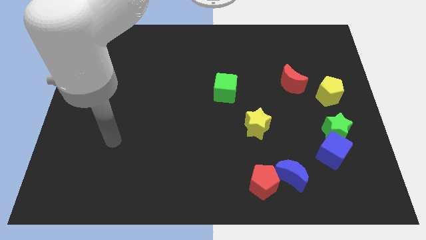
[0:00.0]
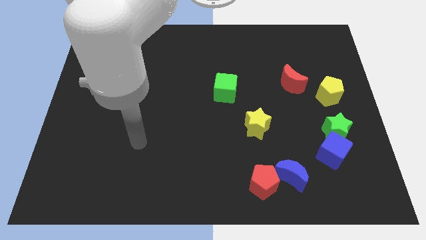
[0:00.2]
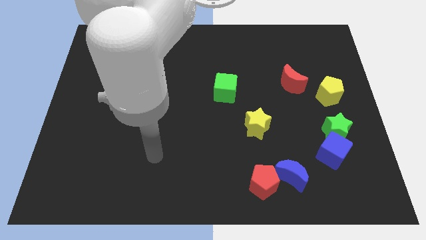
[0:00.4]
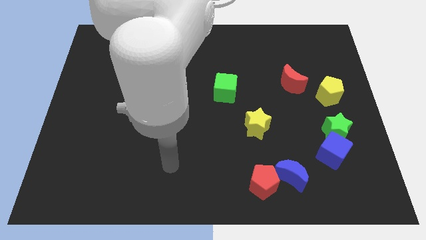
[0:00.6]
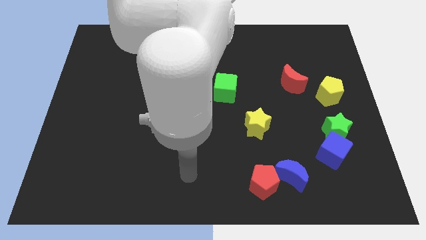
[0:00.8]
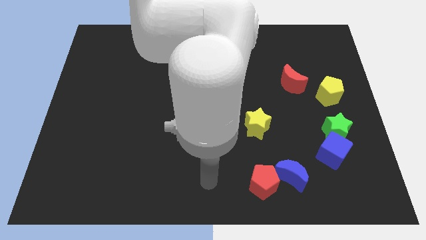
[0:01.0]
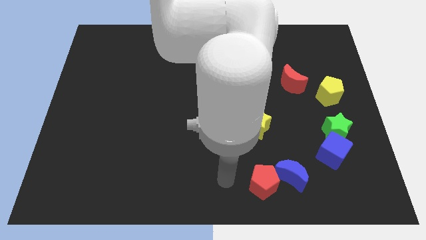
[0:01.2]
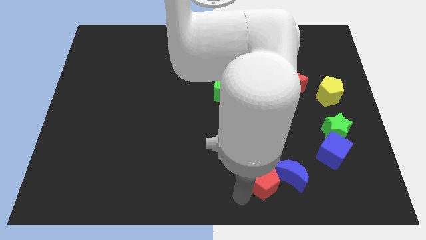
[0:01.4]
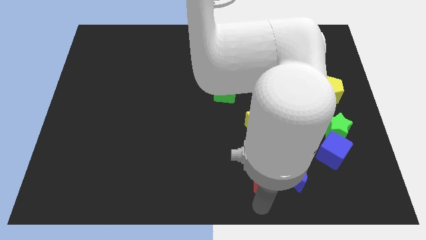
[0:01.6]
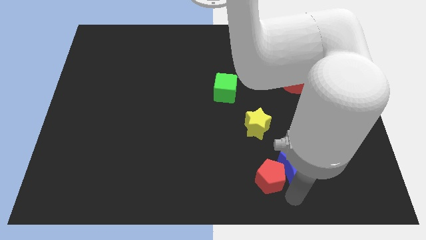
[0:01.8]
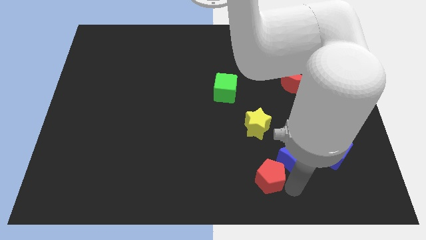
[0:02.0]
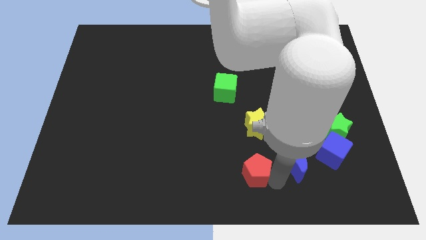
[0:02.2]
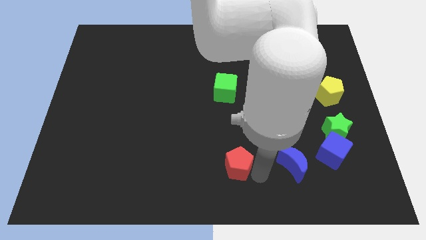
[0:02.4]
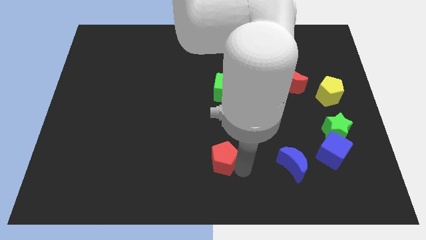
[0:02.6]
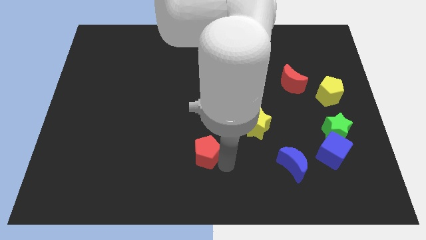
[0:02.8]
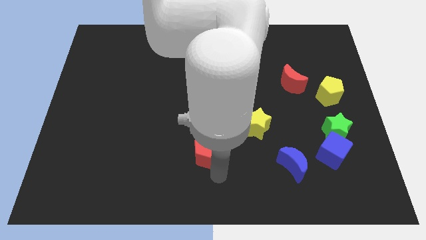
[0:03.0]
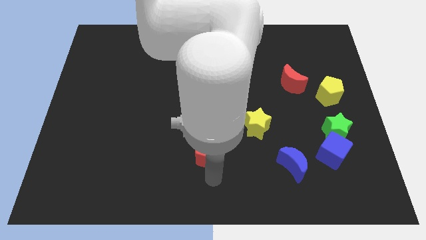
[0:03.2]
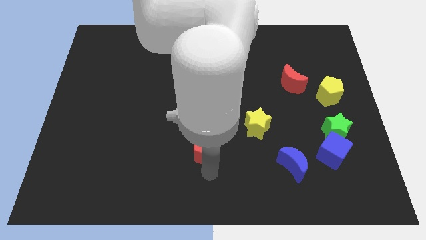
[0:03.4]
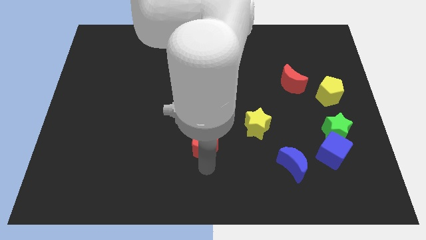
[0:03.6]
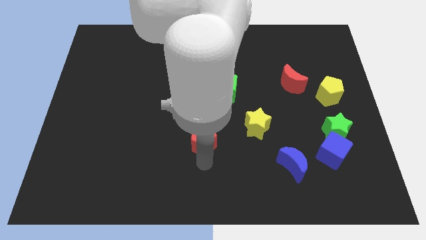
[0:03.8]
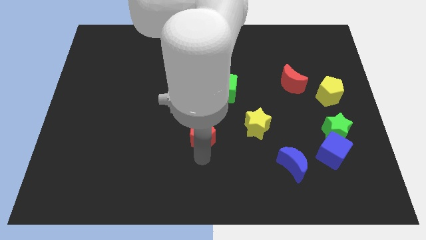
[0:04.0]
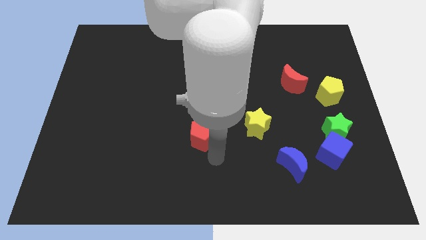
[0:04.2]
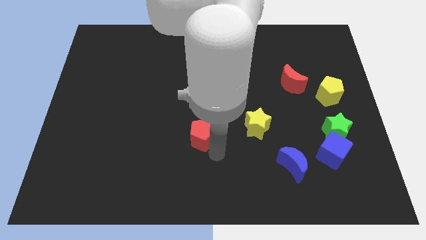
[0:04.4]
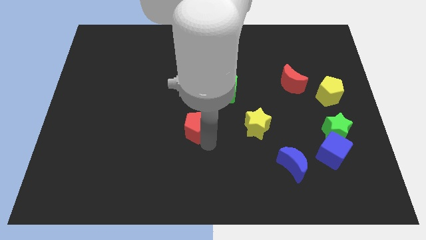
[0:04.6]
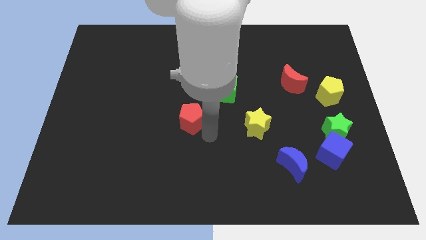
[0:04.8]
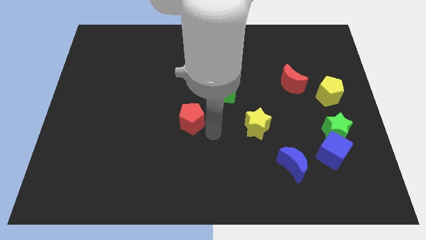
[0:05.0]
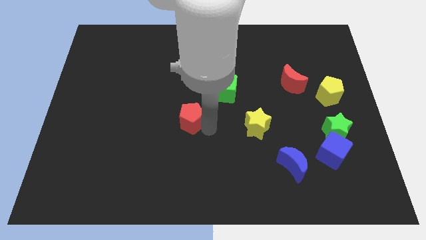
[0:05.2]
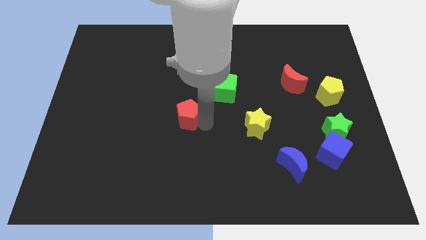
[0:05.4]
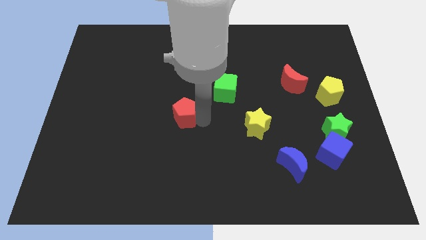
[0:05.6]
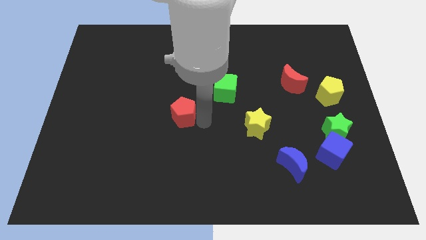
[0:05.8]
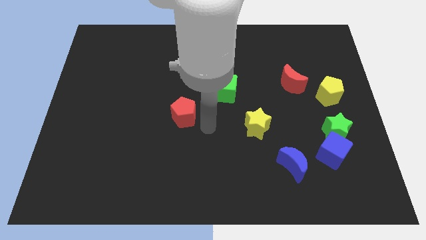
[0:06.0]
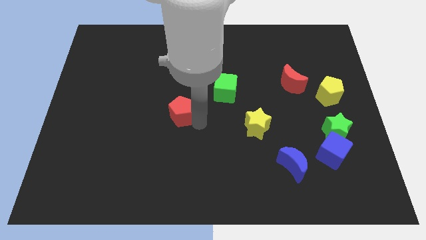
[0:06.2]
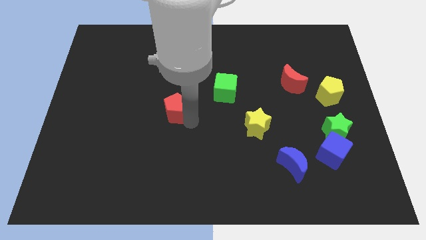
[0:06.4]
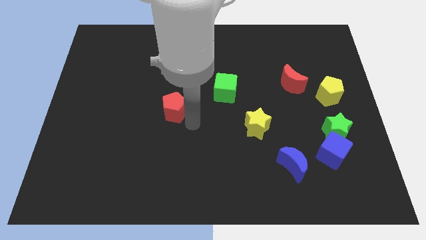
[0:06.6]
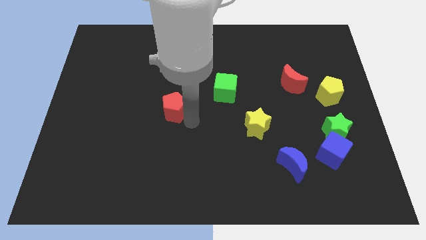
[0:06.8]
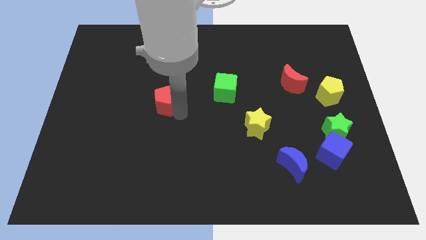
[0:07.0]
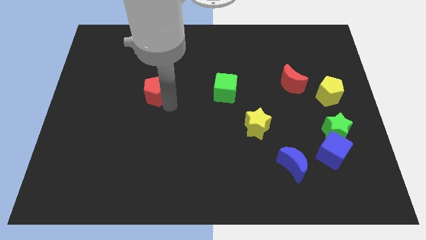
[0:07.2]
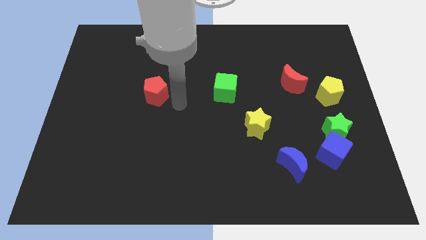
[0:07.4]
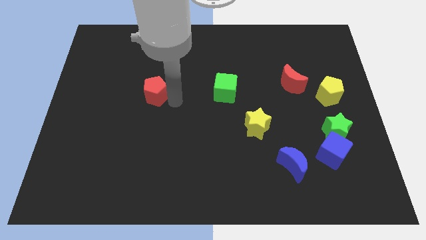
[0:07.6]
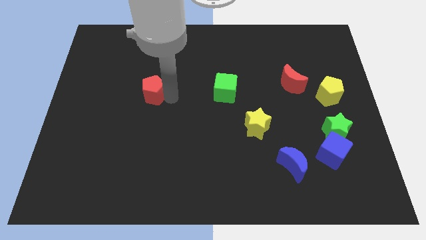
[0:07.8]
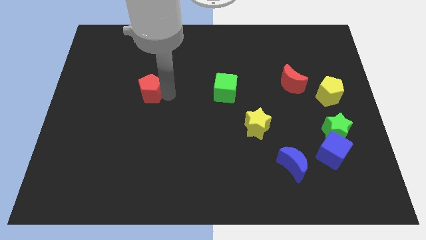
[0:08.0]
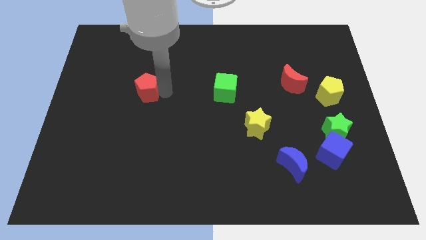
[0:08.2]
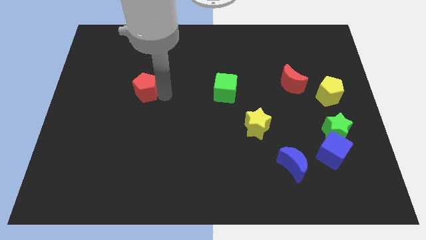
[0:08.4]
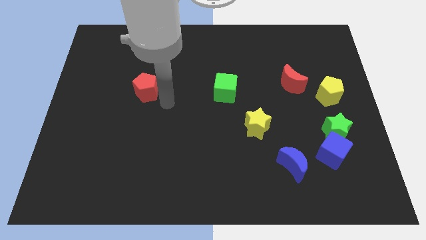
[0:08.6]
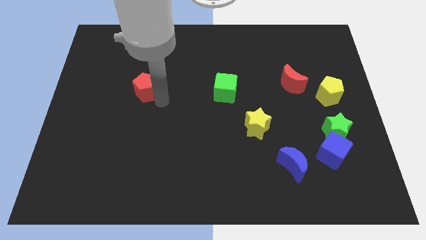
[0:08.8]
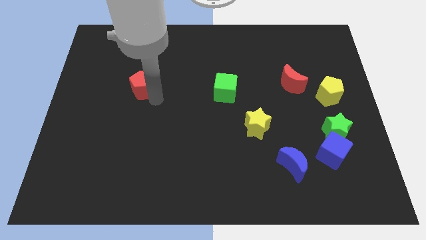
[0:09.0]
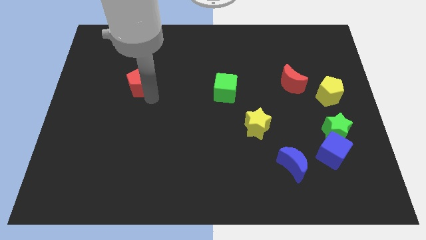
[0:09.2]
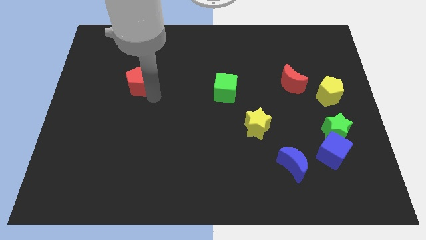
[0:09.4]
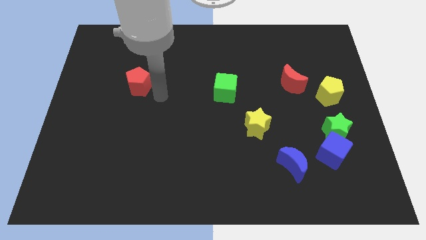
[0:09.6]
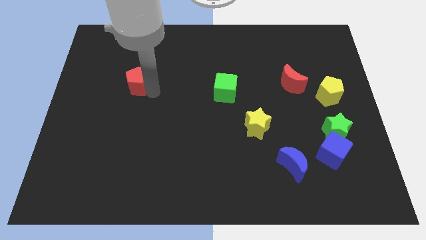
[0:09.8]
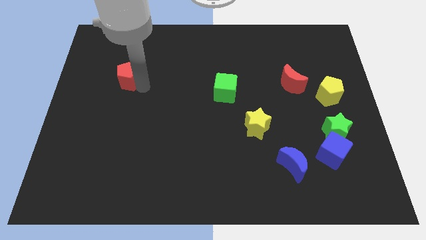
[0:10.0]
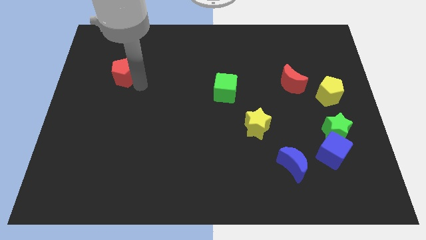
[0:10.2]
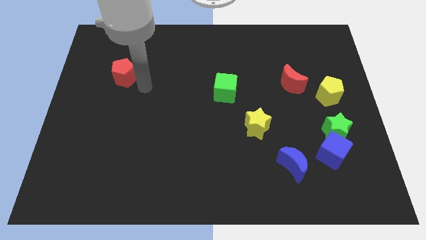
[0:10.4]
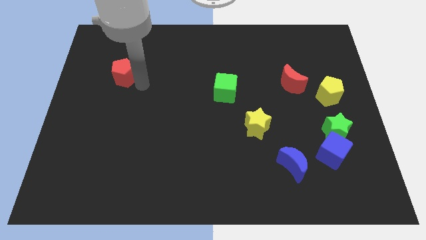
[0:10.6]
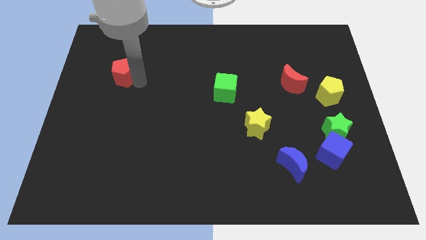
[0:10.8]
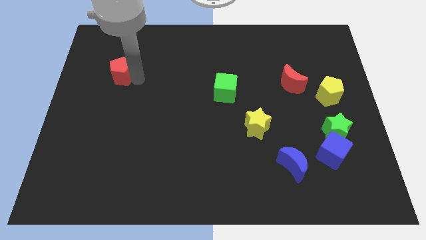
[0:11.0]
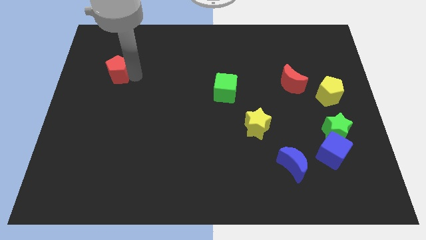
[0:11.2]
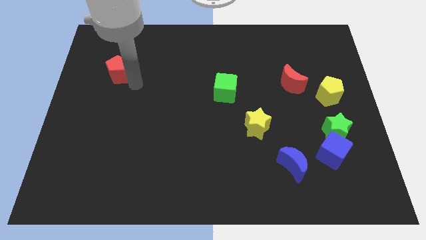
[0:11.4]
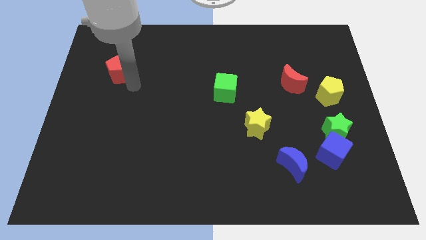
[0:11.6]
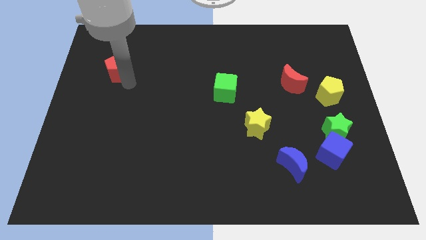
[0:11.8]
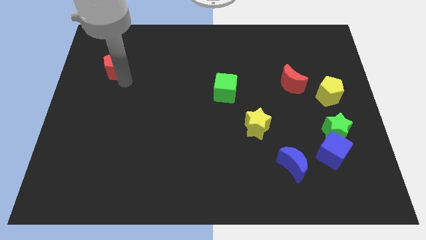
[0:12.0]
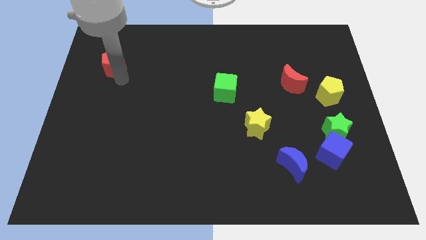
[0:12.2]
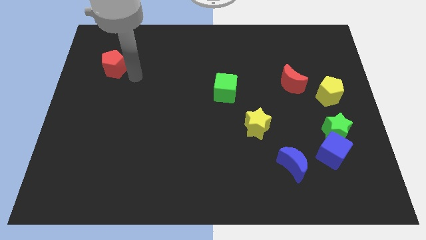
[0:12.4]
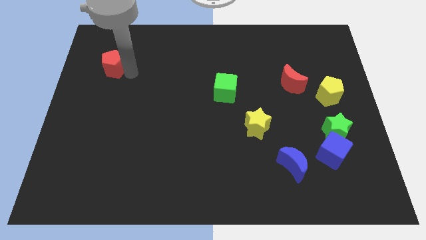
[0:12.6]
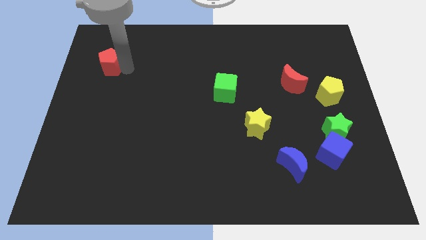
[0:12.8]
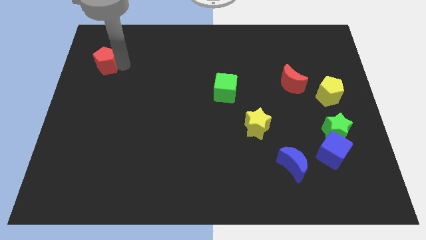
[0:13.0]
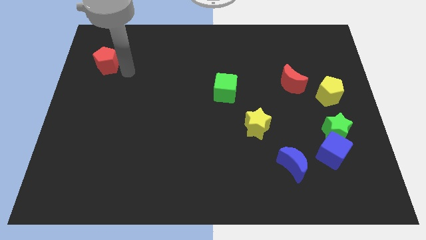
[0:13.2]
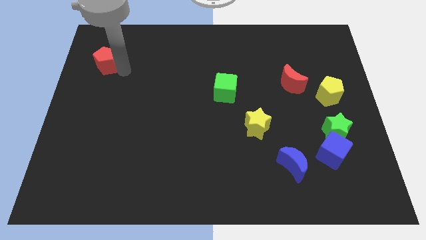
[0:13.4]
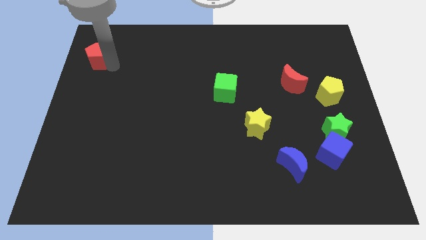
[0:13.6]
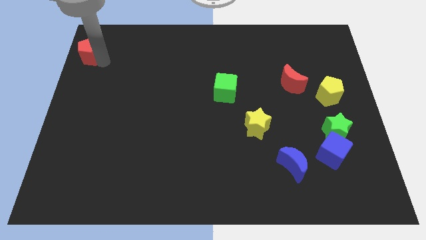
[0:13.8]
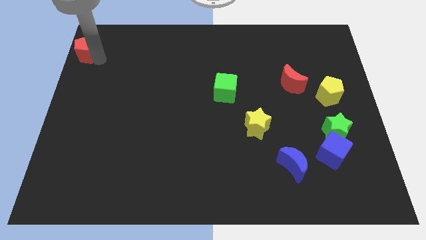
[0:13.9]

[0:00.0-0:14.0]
move the red pentagon to the top left

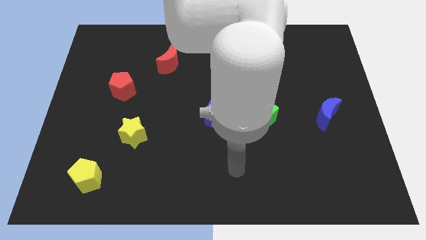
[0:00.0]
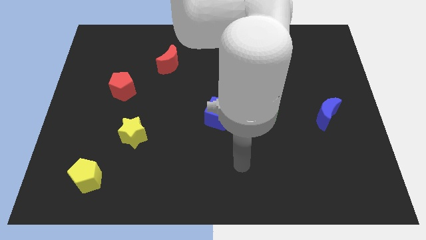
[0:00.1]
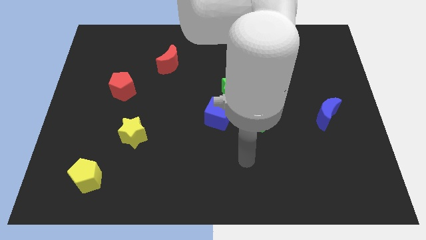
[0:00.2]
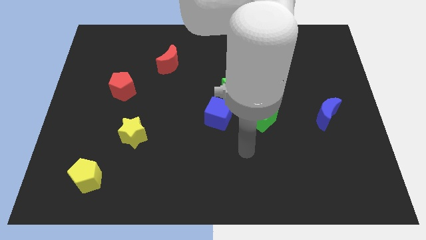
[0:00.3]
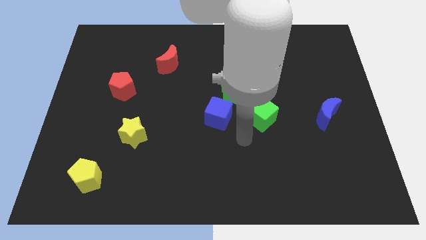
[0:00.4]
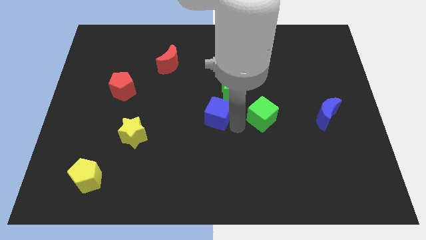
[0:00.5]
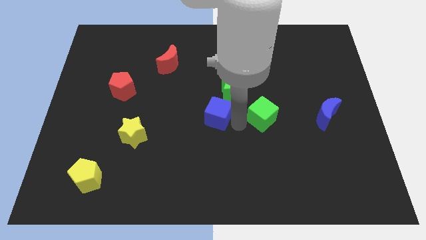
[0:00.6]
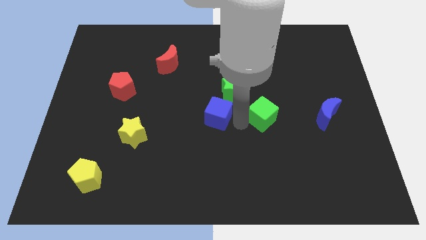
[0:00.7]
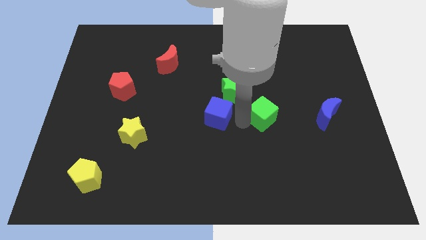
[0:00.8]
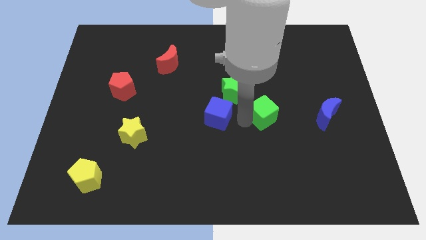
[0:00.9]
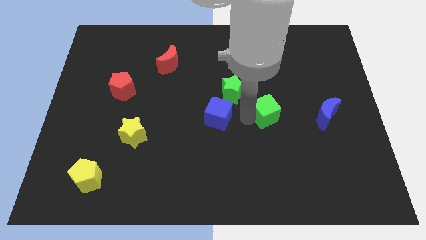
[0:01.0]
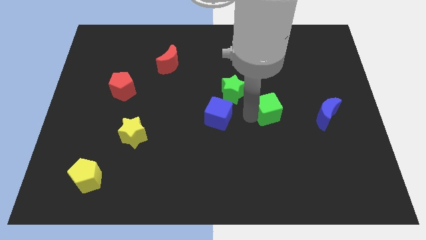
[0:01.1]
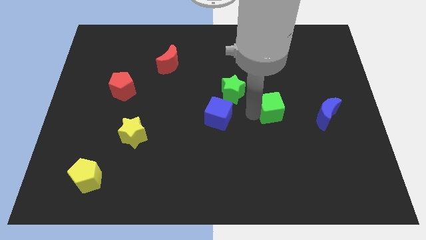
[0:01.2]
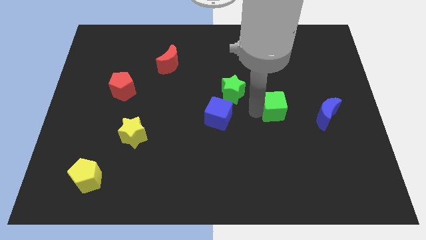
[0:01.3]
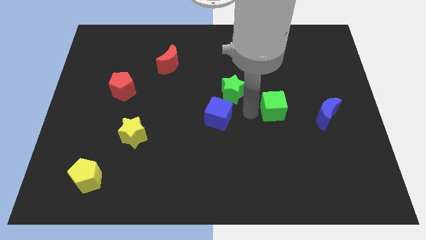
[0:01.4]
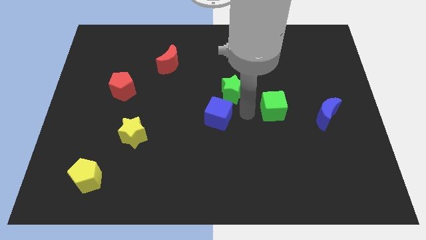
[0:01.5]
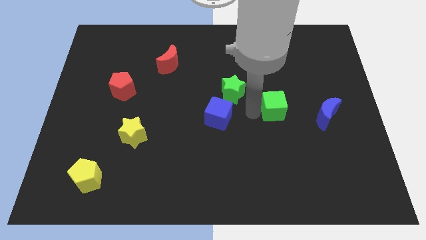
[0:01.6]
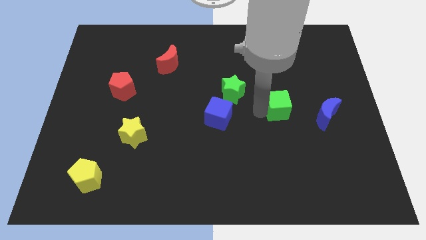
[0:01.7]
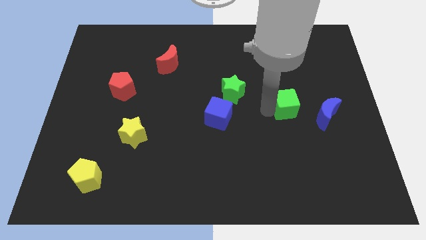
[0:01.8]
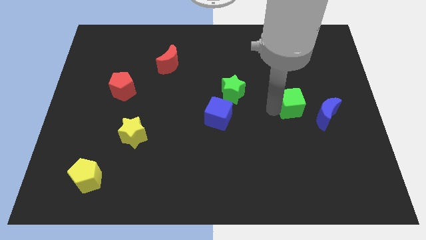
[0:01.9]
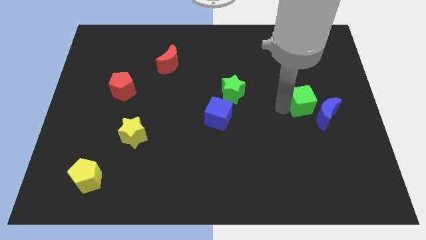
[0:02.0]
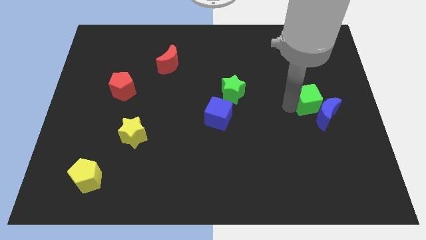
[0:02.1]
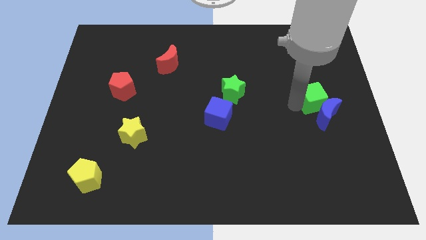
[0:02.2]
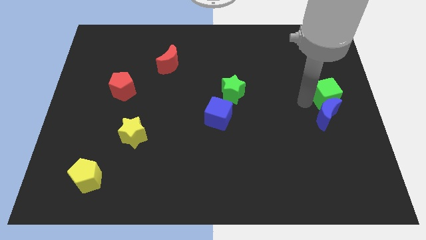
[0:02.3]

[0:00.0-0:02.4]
slide the green cube to the right side of the board
